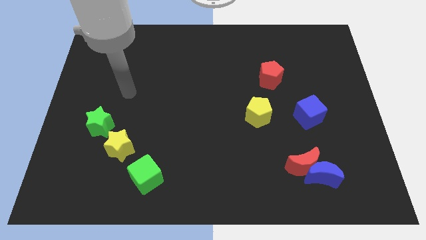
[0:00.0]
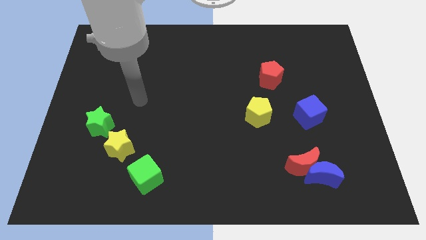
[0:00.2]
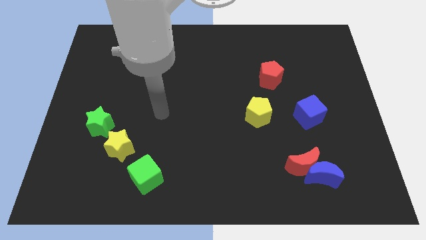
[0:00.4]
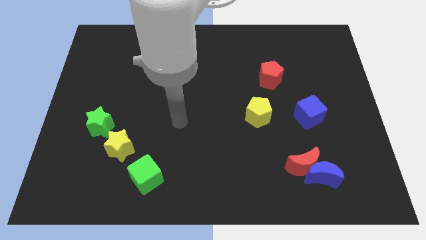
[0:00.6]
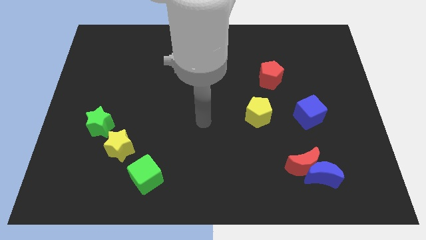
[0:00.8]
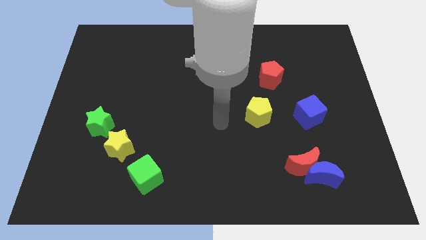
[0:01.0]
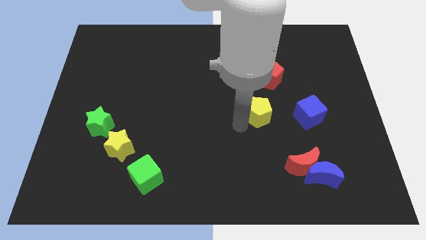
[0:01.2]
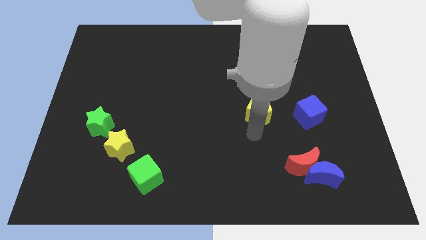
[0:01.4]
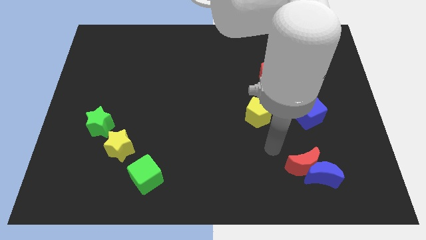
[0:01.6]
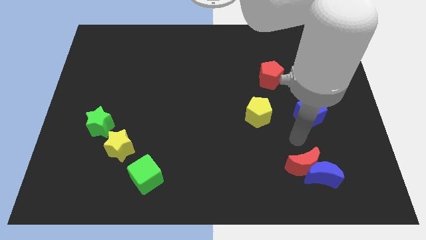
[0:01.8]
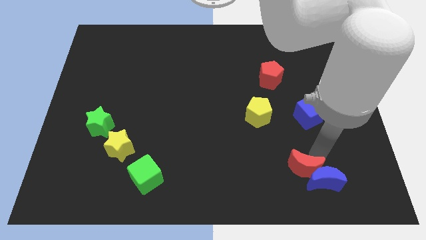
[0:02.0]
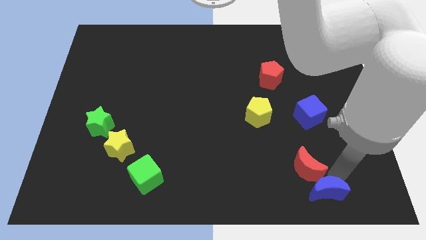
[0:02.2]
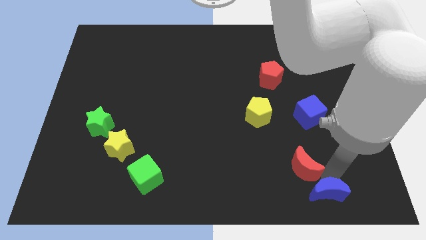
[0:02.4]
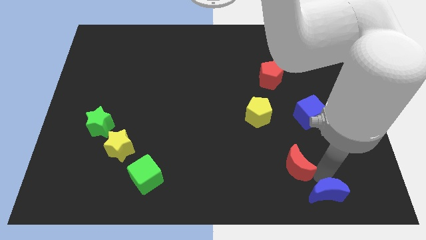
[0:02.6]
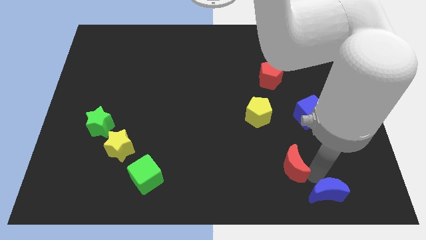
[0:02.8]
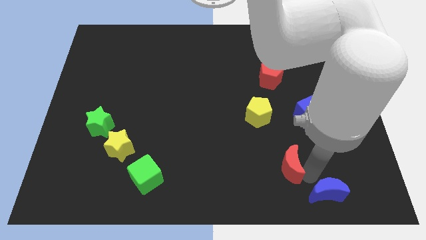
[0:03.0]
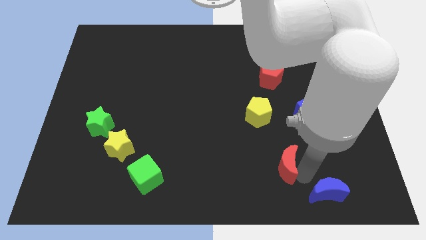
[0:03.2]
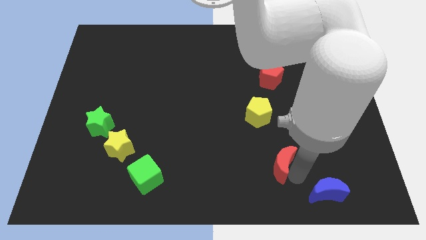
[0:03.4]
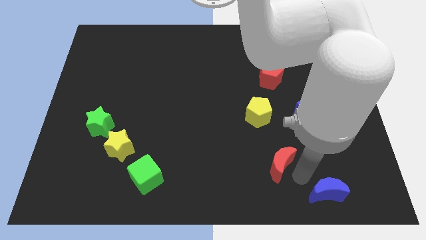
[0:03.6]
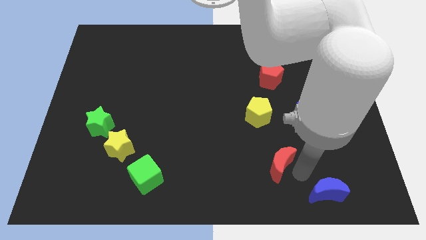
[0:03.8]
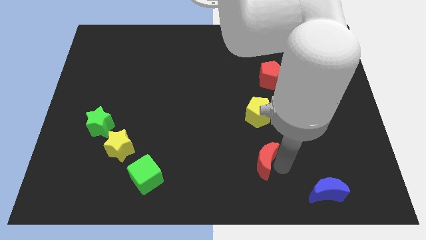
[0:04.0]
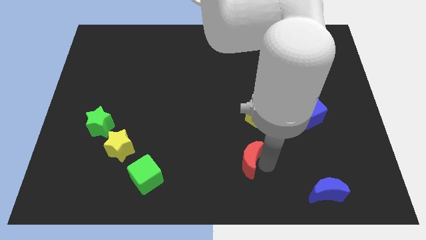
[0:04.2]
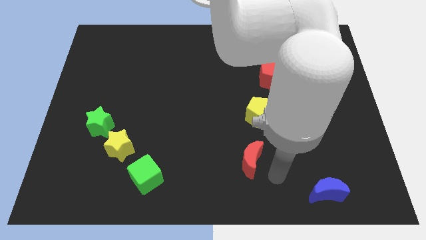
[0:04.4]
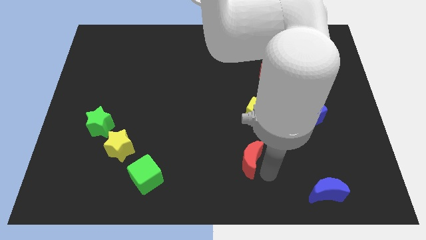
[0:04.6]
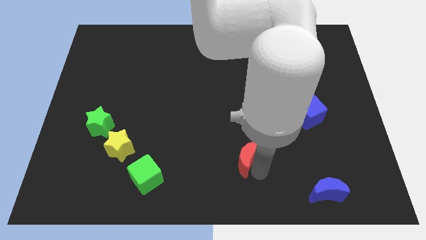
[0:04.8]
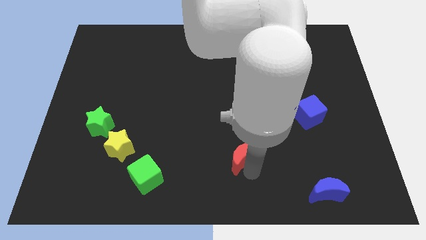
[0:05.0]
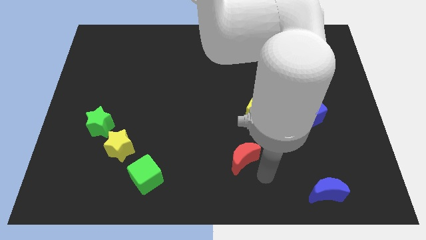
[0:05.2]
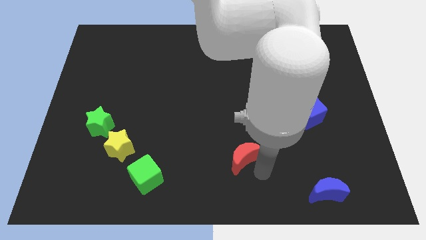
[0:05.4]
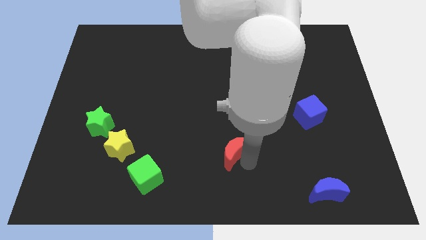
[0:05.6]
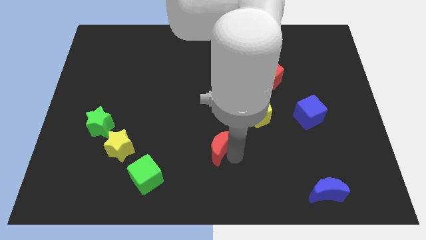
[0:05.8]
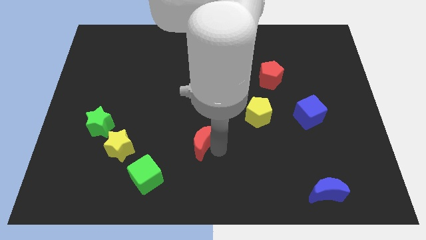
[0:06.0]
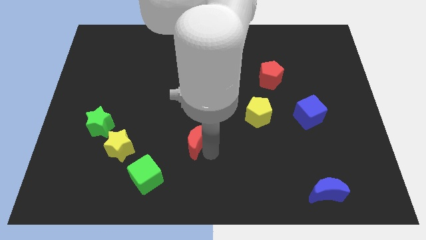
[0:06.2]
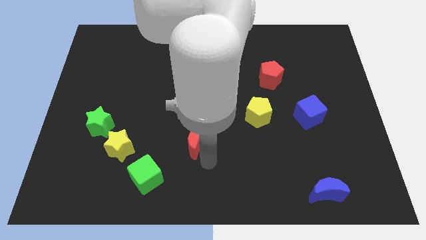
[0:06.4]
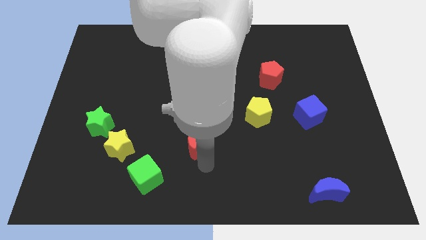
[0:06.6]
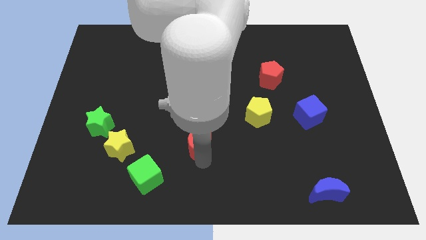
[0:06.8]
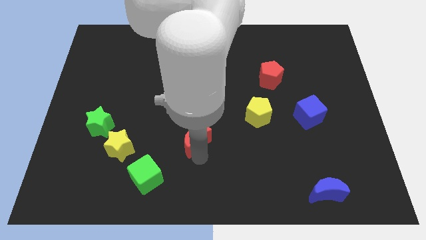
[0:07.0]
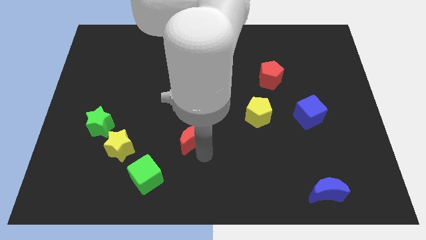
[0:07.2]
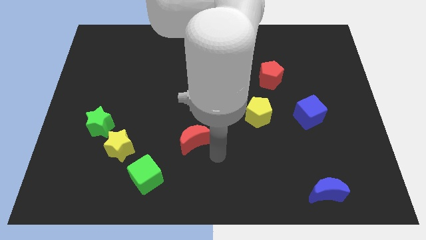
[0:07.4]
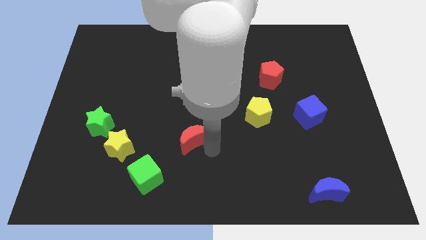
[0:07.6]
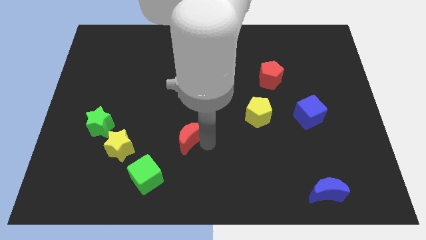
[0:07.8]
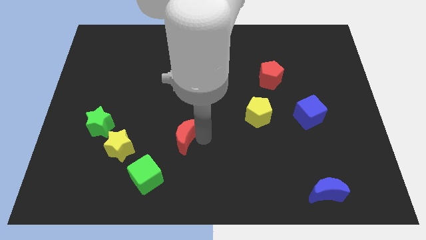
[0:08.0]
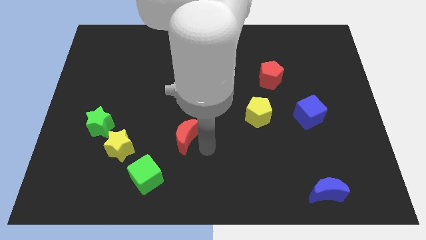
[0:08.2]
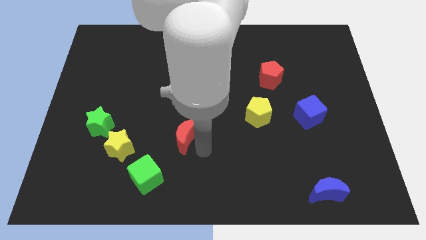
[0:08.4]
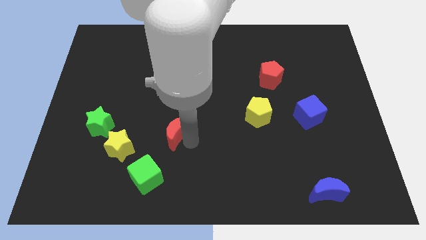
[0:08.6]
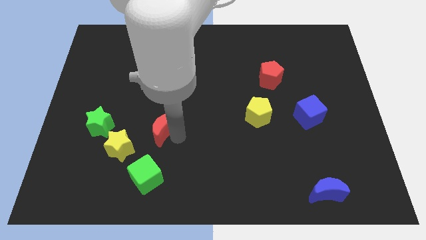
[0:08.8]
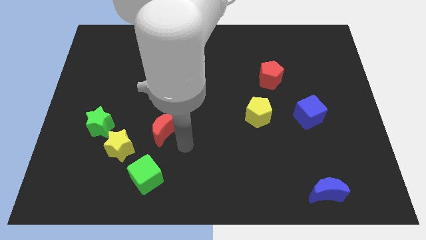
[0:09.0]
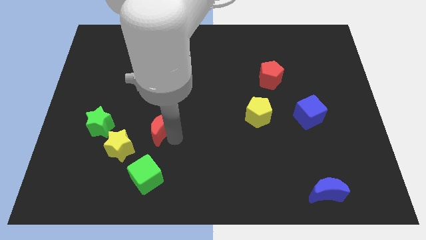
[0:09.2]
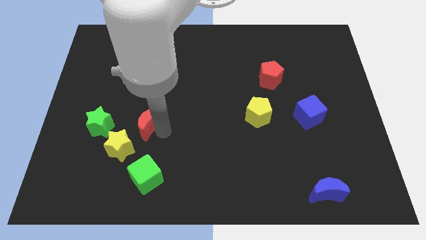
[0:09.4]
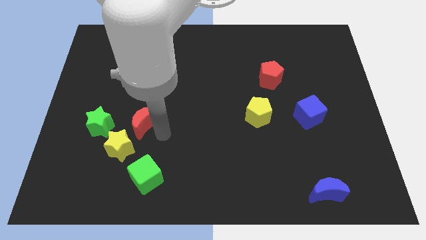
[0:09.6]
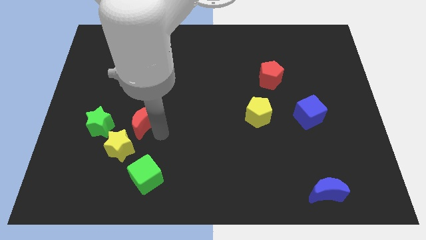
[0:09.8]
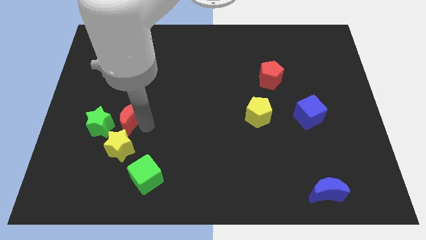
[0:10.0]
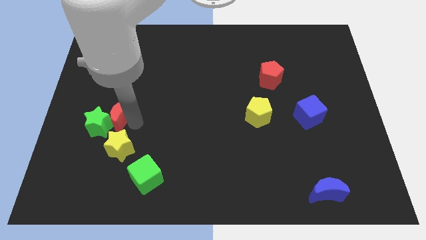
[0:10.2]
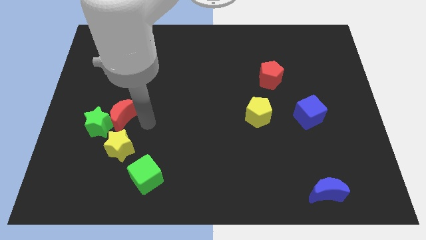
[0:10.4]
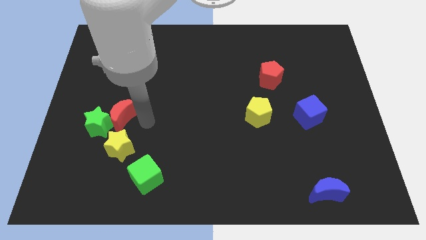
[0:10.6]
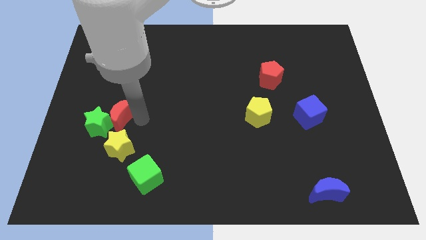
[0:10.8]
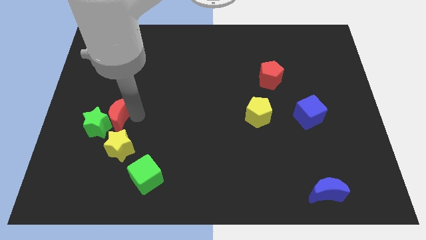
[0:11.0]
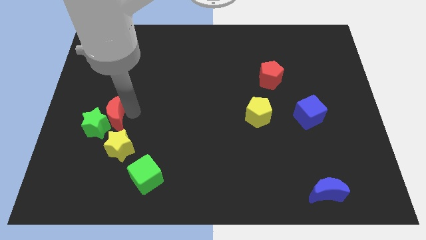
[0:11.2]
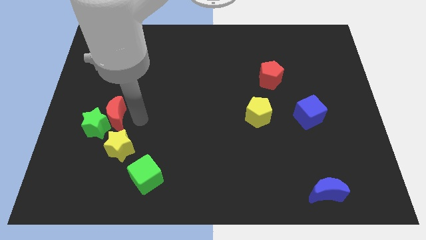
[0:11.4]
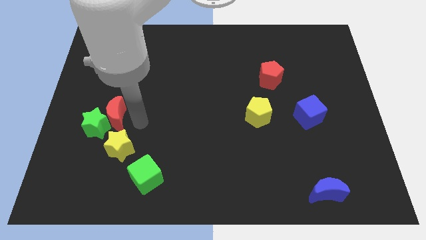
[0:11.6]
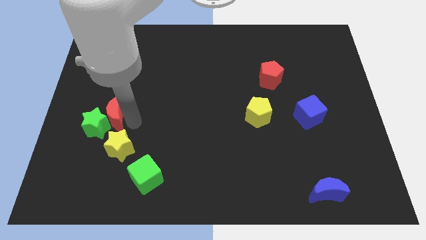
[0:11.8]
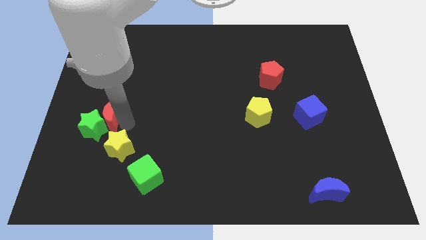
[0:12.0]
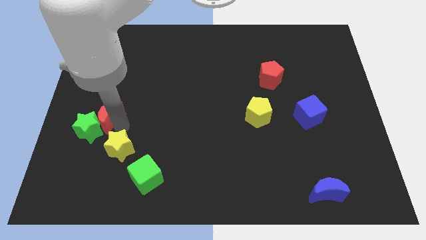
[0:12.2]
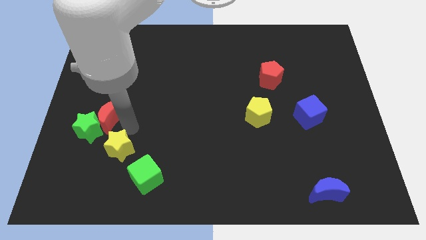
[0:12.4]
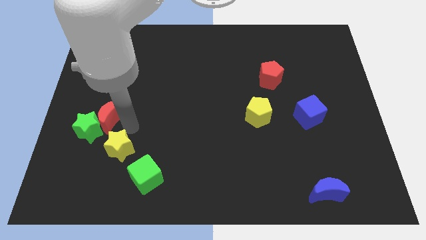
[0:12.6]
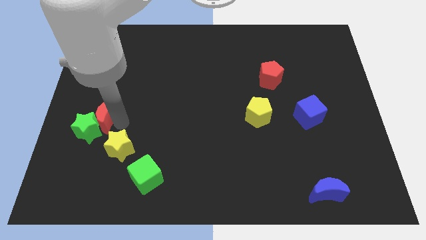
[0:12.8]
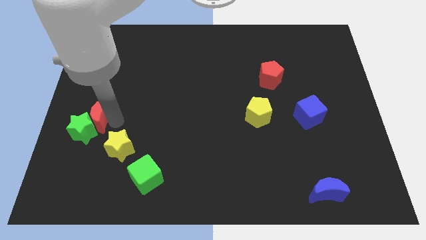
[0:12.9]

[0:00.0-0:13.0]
slide the red moon to the center left
